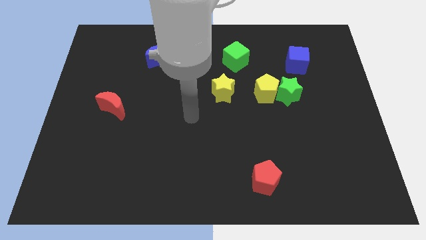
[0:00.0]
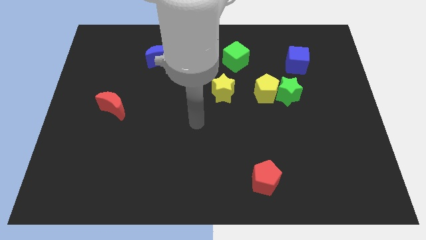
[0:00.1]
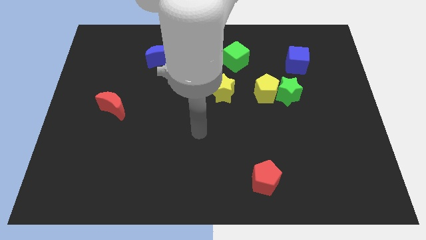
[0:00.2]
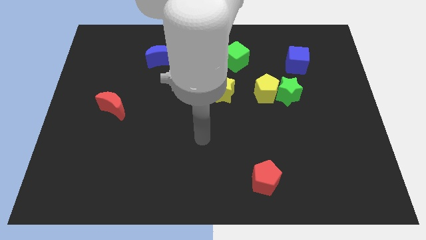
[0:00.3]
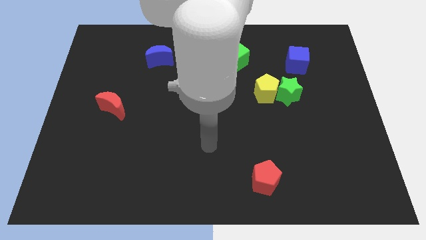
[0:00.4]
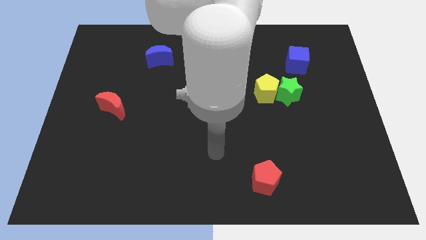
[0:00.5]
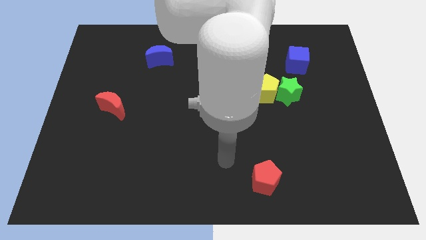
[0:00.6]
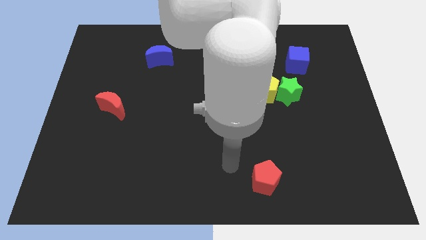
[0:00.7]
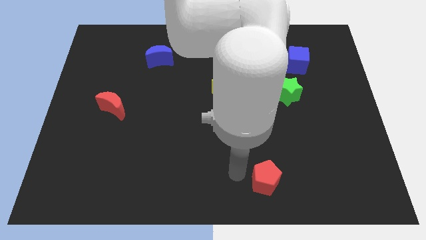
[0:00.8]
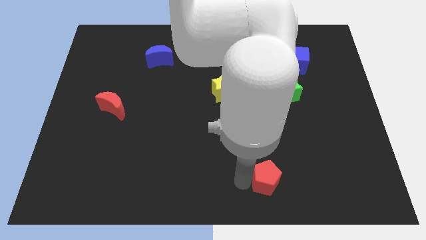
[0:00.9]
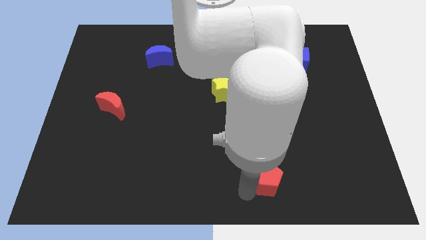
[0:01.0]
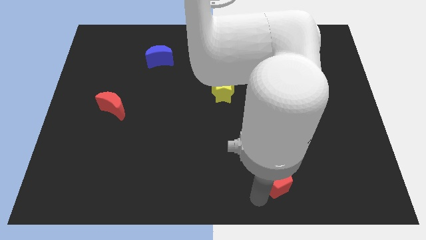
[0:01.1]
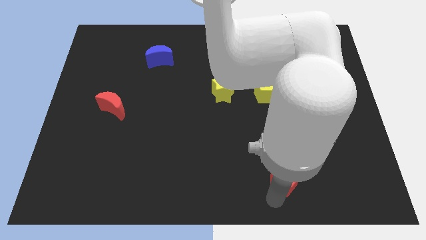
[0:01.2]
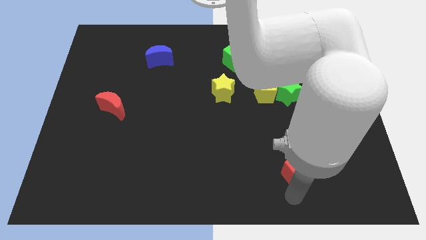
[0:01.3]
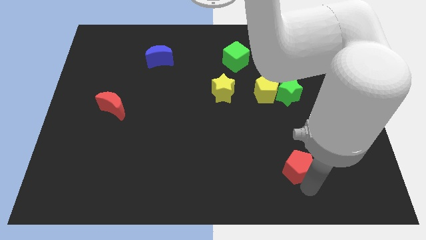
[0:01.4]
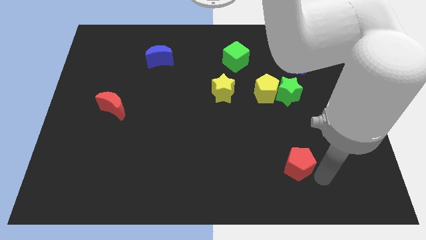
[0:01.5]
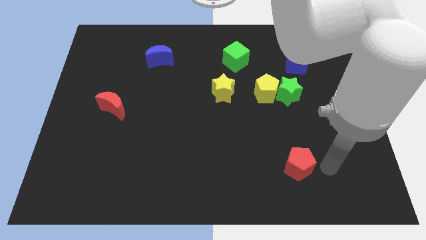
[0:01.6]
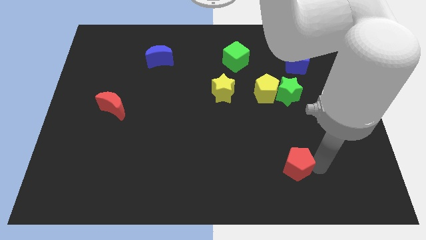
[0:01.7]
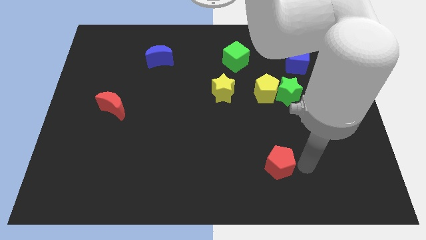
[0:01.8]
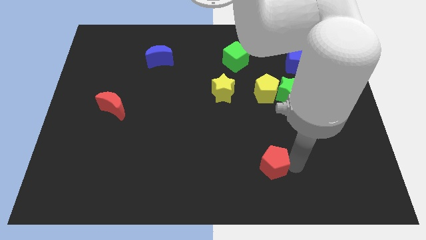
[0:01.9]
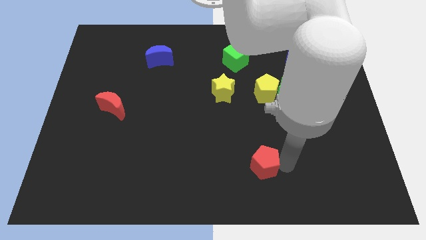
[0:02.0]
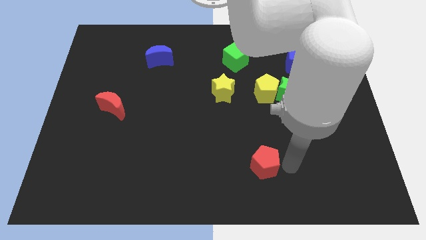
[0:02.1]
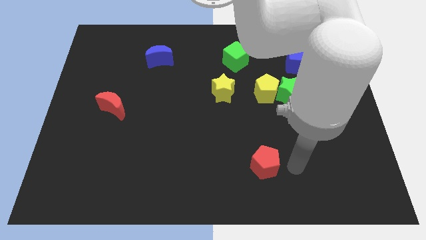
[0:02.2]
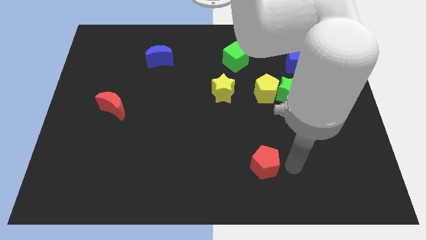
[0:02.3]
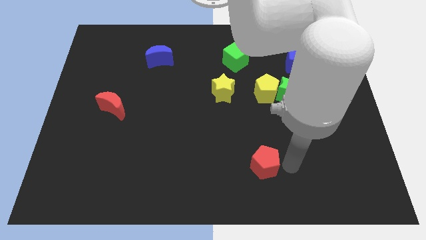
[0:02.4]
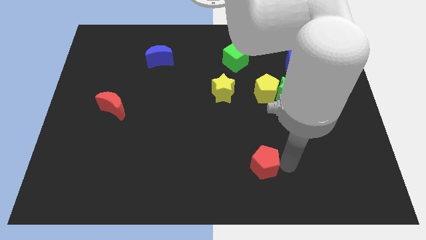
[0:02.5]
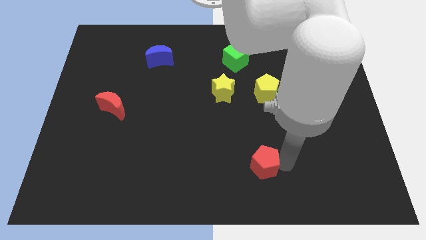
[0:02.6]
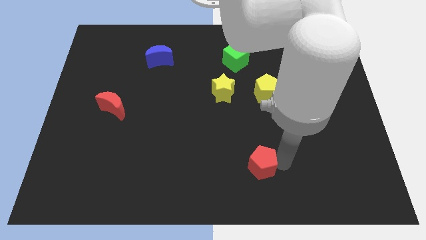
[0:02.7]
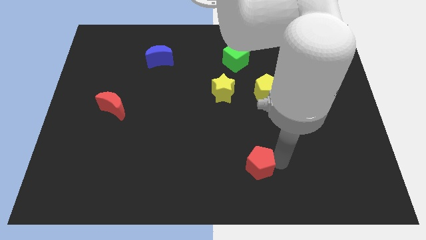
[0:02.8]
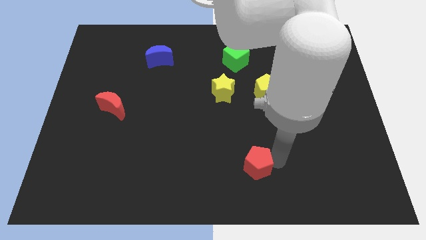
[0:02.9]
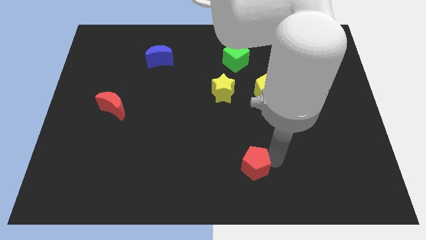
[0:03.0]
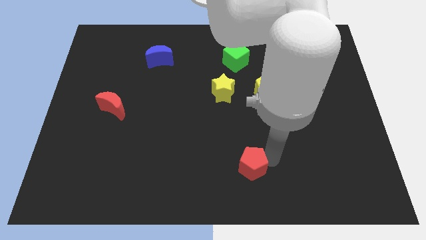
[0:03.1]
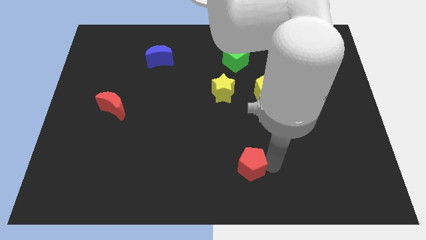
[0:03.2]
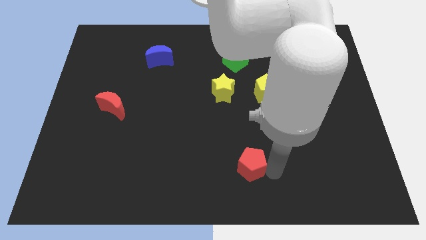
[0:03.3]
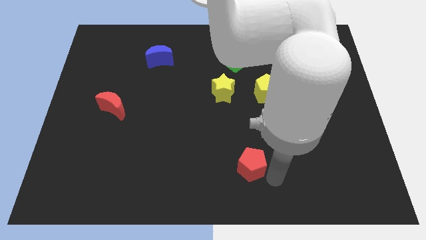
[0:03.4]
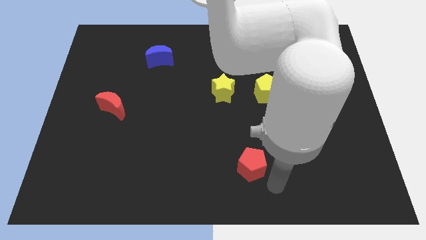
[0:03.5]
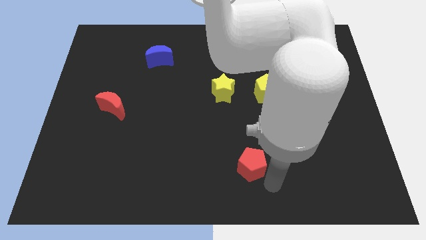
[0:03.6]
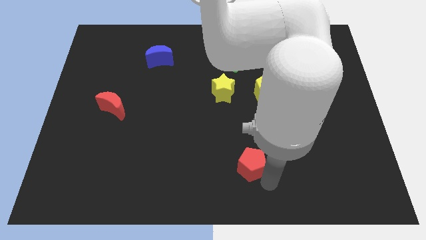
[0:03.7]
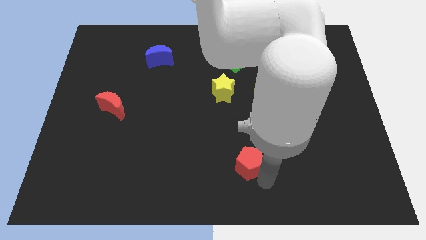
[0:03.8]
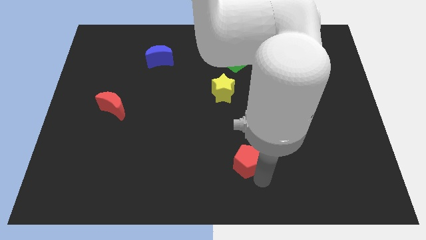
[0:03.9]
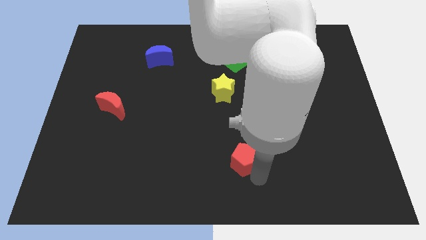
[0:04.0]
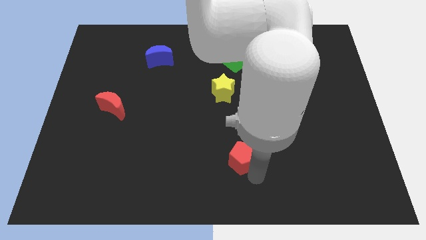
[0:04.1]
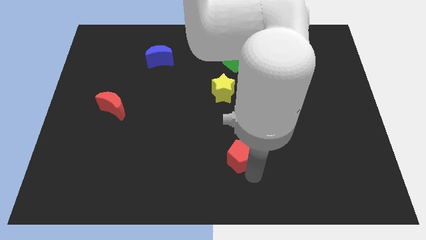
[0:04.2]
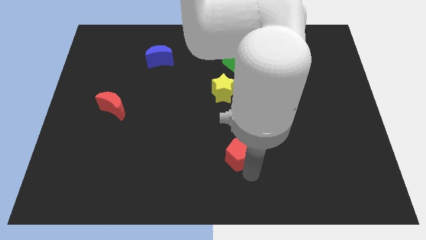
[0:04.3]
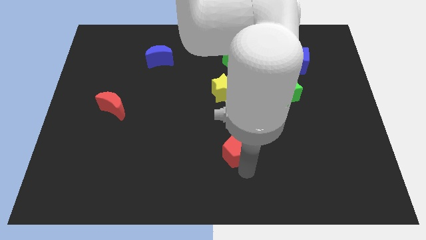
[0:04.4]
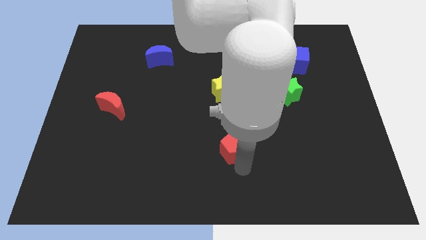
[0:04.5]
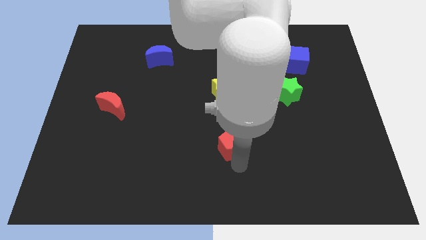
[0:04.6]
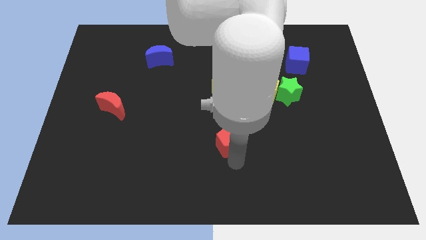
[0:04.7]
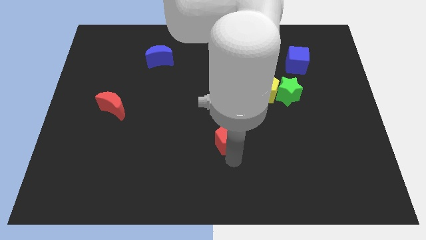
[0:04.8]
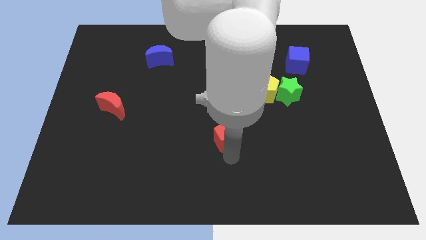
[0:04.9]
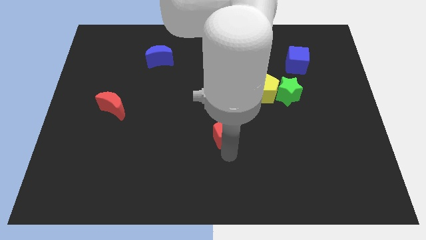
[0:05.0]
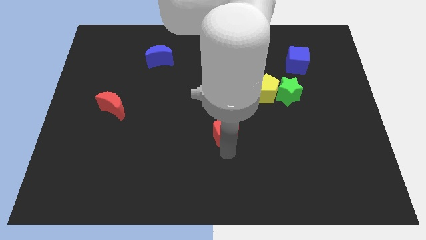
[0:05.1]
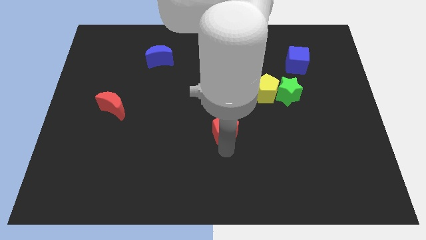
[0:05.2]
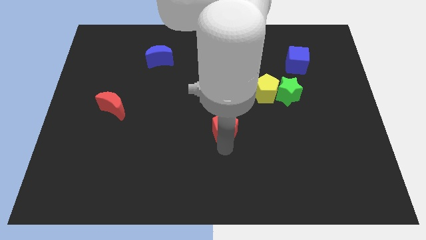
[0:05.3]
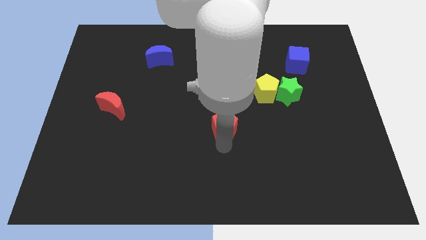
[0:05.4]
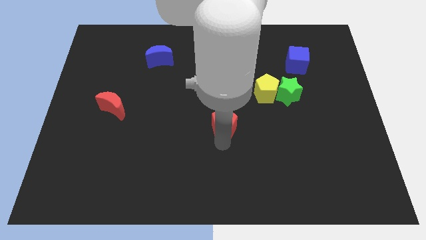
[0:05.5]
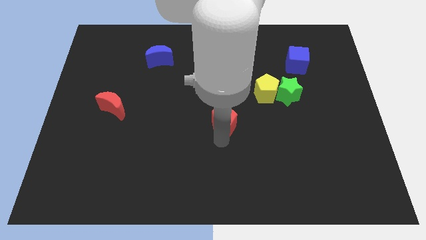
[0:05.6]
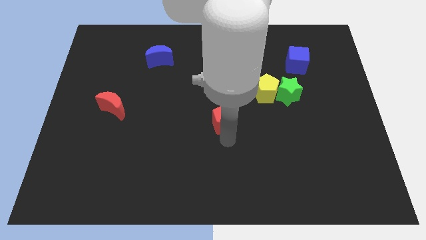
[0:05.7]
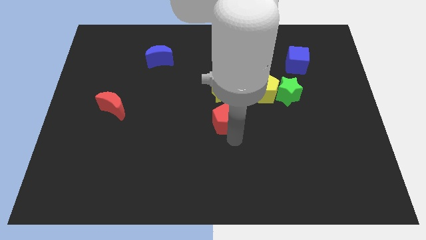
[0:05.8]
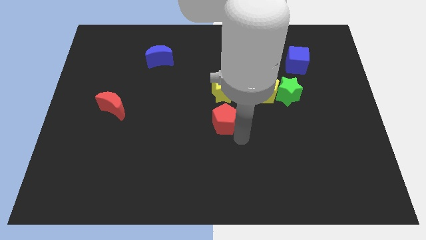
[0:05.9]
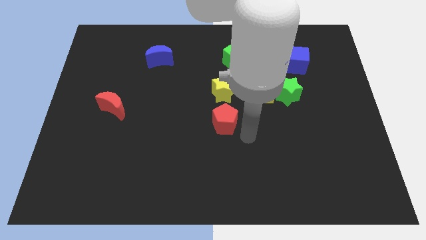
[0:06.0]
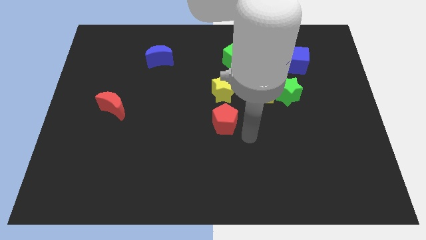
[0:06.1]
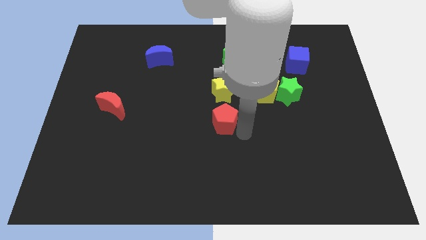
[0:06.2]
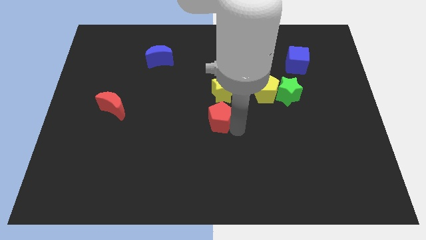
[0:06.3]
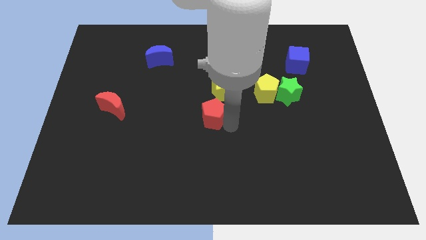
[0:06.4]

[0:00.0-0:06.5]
push the red pentagon to the bottom left of the yellow star
